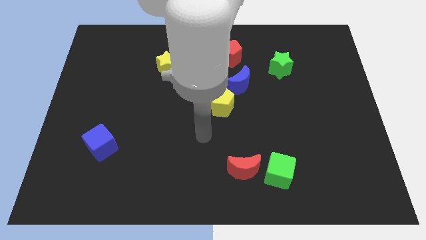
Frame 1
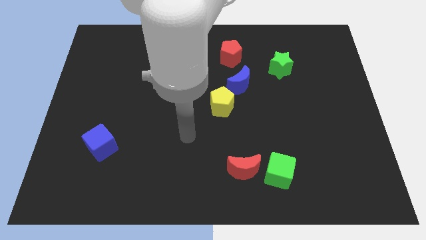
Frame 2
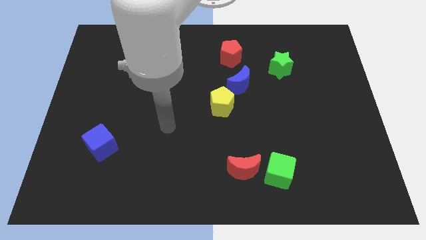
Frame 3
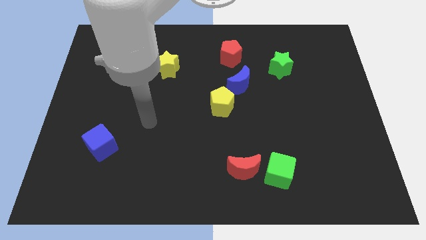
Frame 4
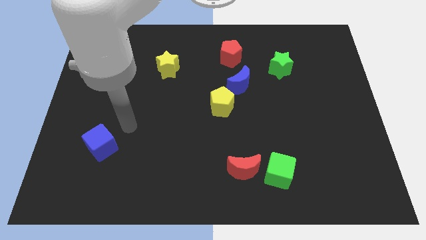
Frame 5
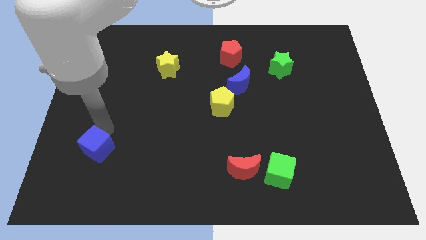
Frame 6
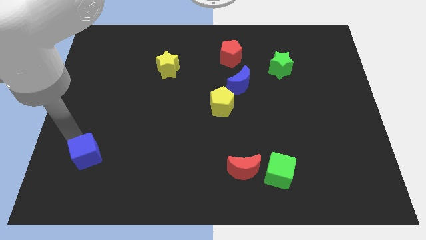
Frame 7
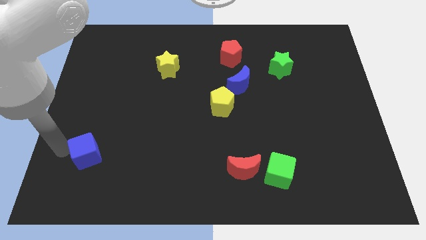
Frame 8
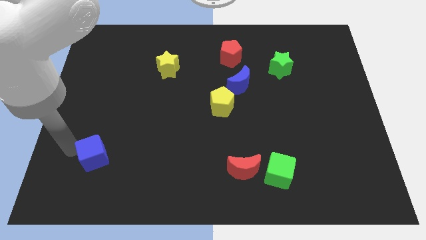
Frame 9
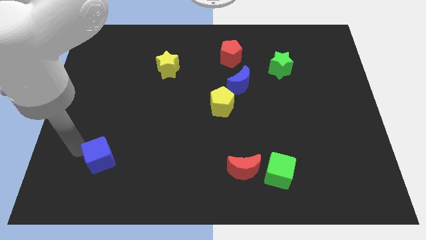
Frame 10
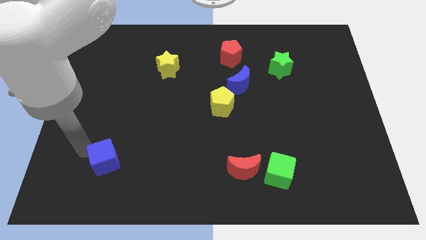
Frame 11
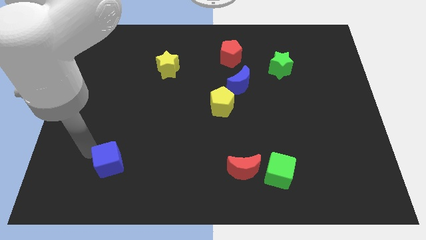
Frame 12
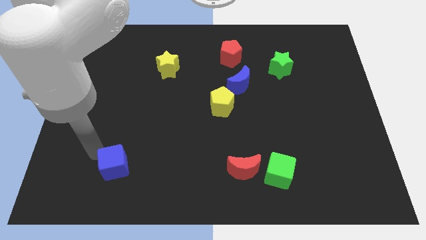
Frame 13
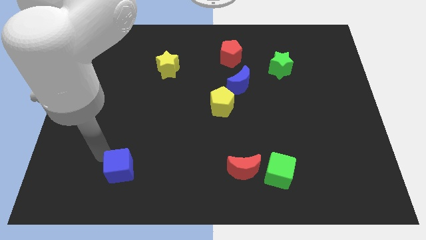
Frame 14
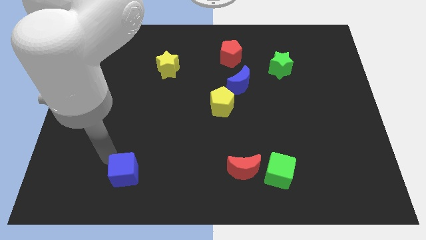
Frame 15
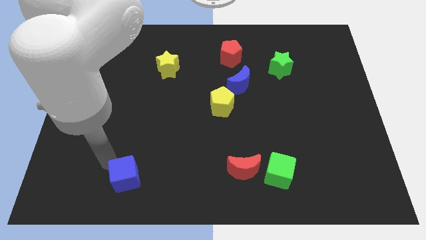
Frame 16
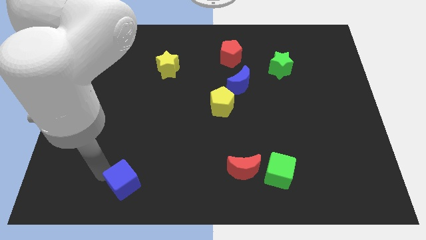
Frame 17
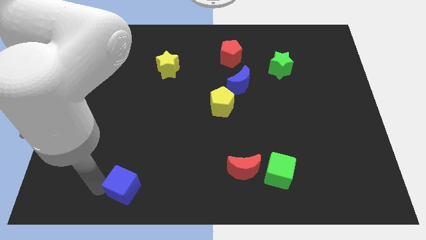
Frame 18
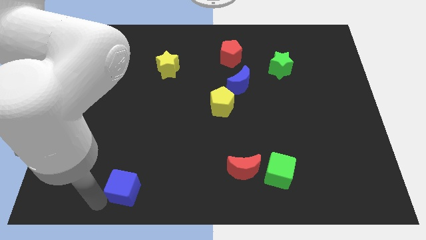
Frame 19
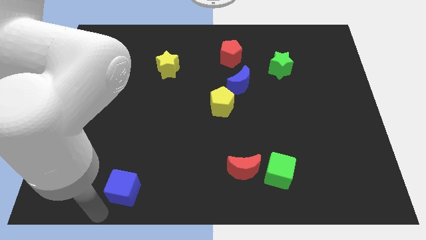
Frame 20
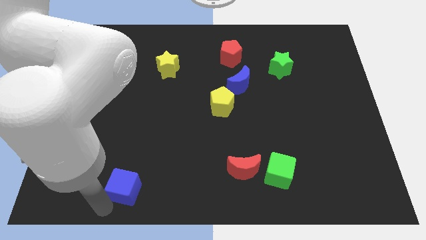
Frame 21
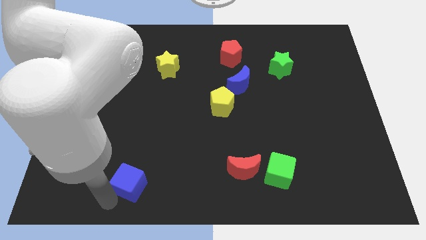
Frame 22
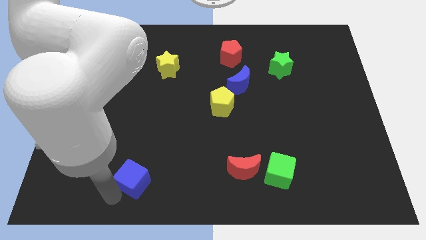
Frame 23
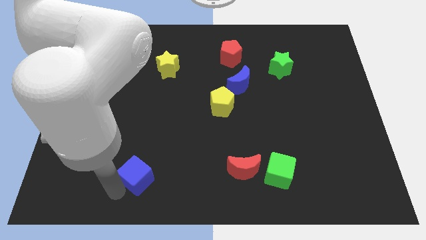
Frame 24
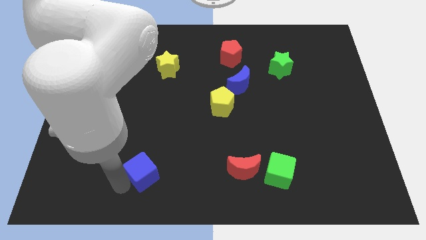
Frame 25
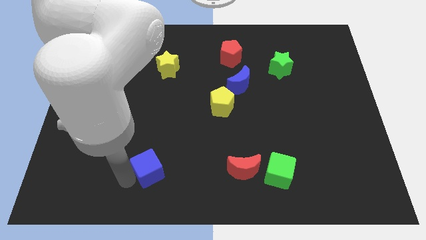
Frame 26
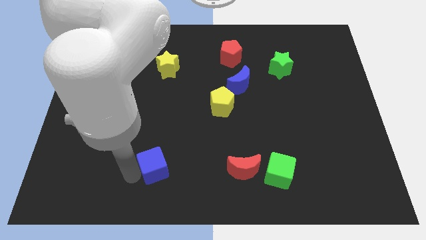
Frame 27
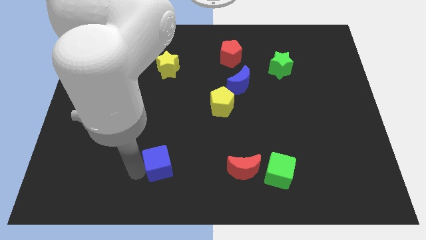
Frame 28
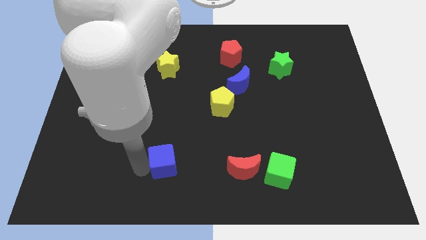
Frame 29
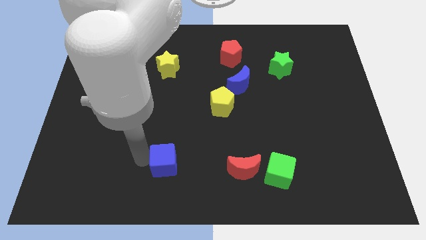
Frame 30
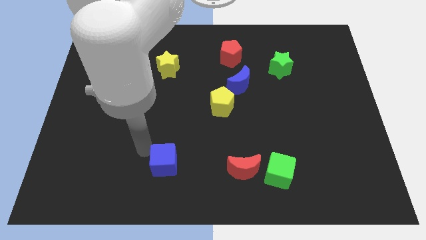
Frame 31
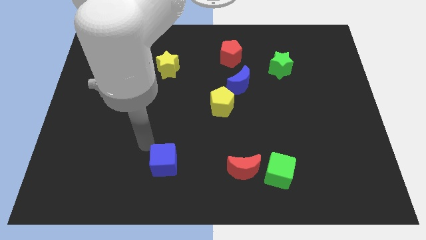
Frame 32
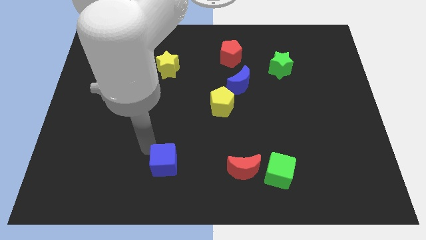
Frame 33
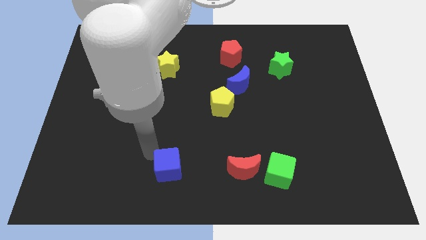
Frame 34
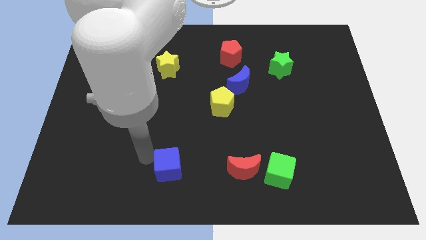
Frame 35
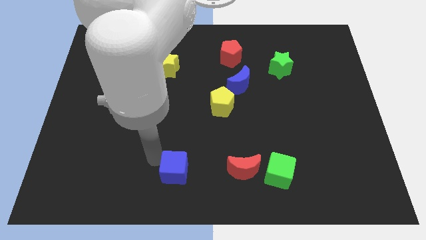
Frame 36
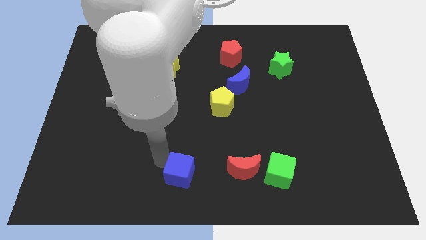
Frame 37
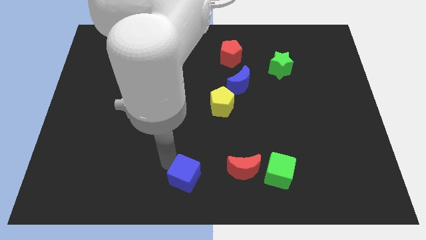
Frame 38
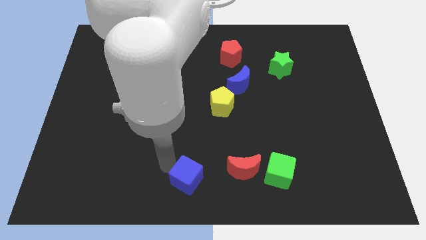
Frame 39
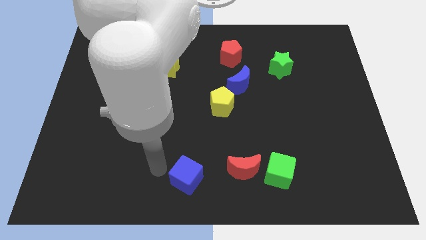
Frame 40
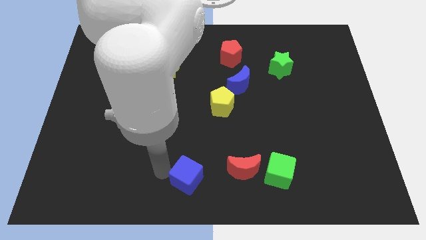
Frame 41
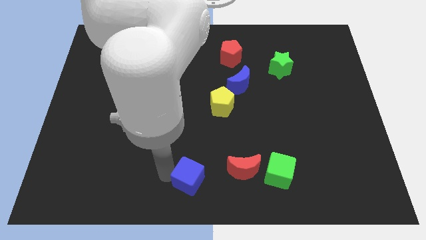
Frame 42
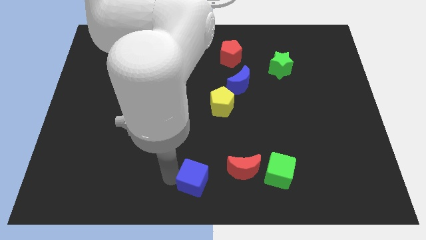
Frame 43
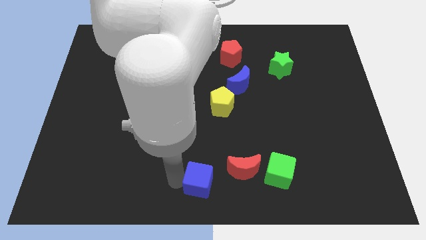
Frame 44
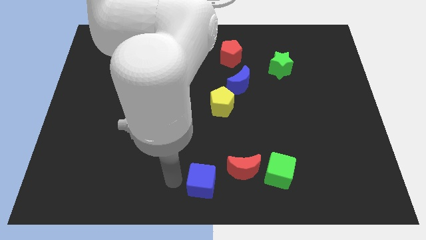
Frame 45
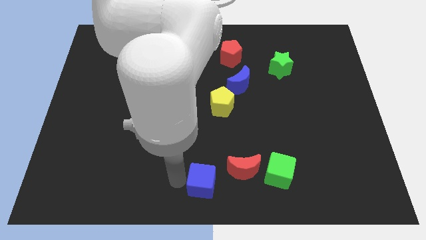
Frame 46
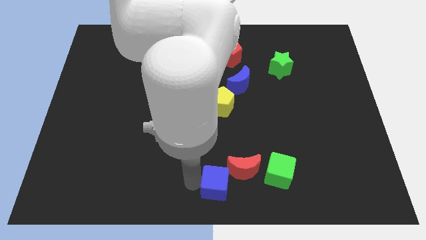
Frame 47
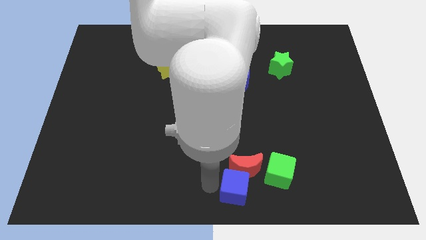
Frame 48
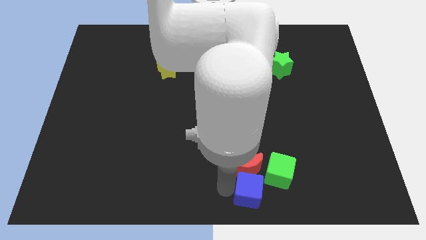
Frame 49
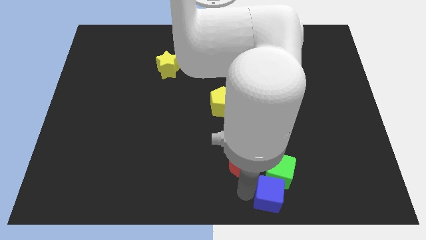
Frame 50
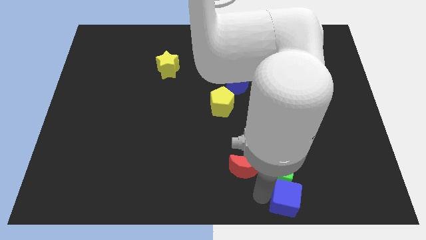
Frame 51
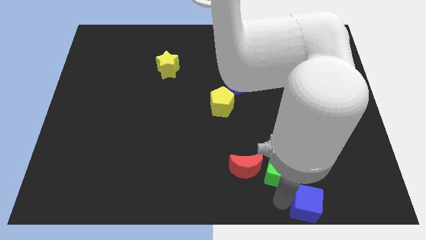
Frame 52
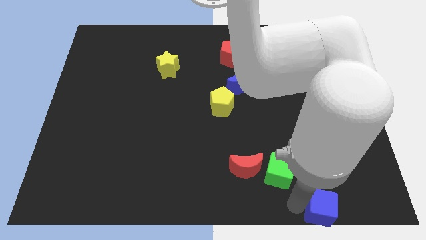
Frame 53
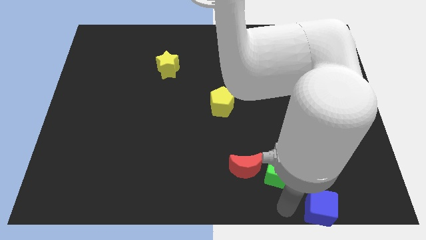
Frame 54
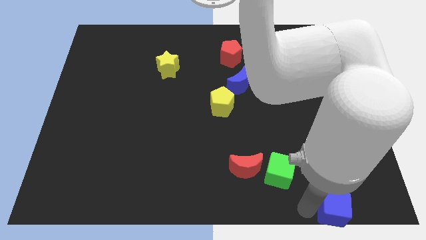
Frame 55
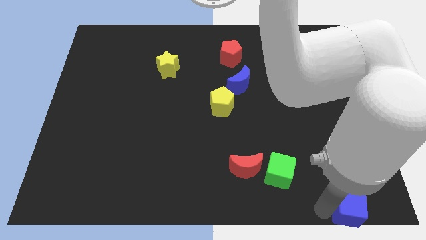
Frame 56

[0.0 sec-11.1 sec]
push the blue cube to the bottom right corner

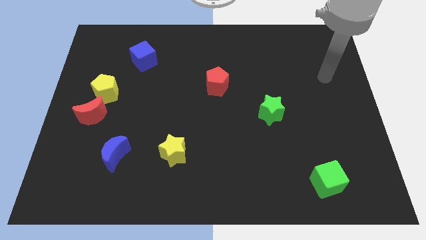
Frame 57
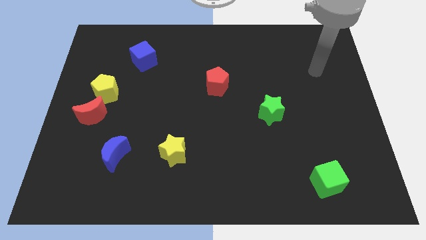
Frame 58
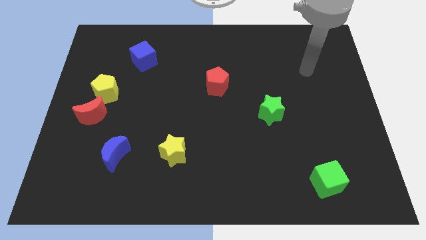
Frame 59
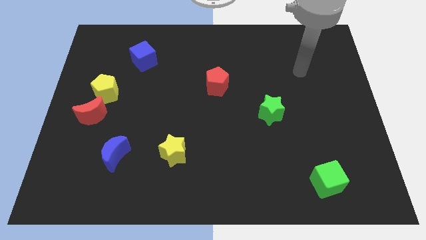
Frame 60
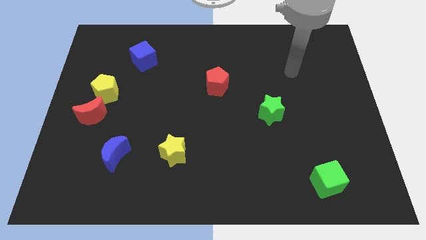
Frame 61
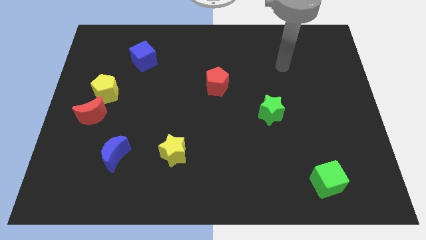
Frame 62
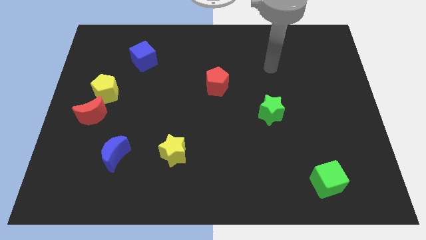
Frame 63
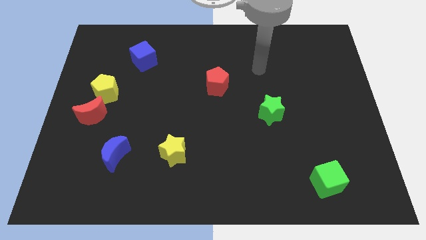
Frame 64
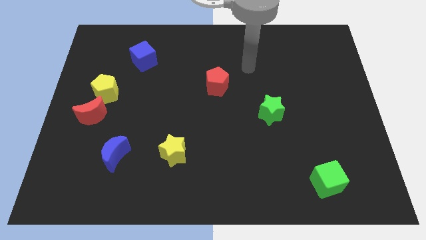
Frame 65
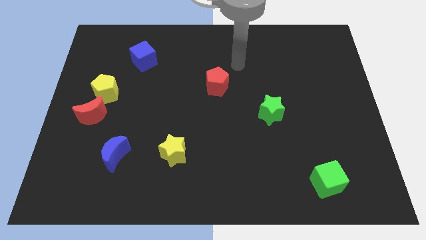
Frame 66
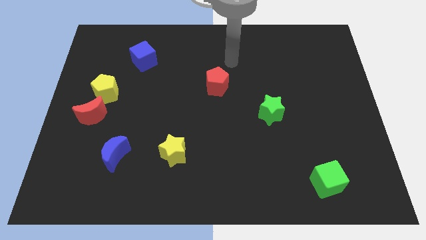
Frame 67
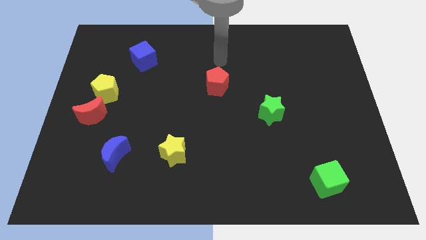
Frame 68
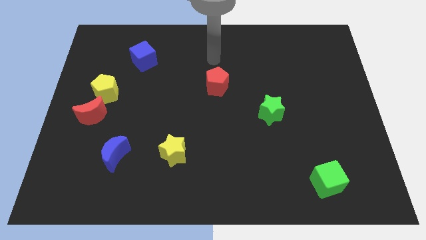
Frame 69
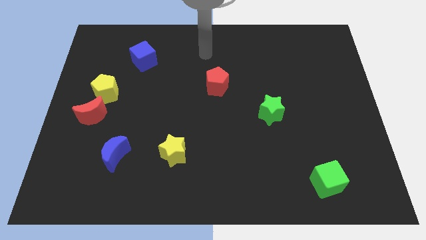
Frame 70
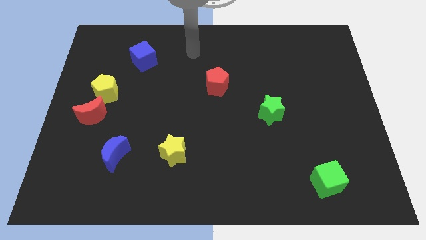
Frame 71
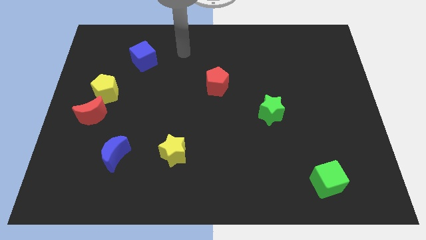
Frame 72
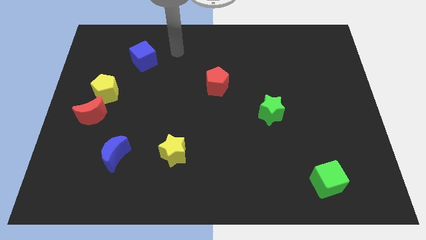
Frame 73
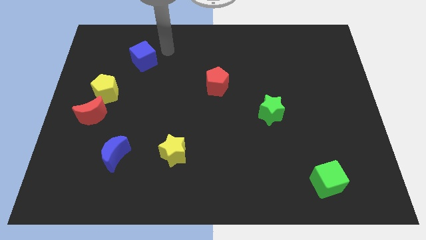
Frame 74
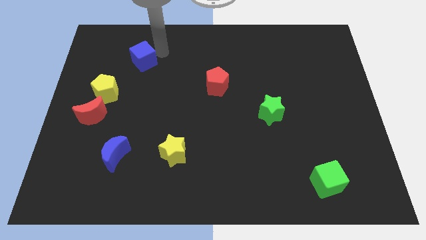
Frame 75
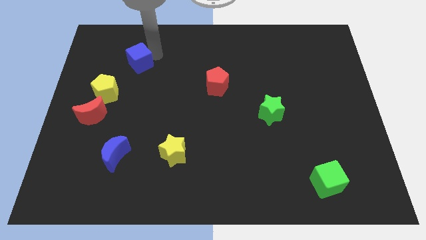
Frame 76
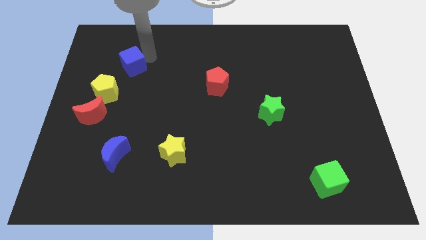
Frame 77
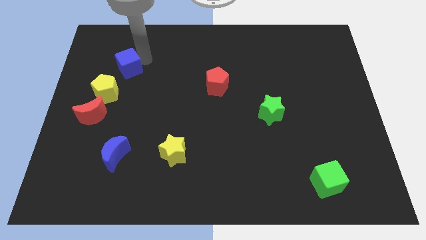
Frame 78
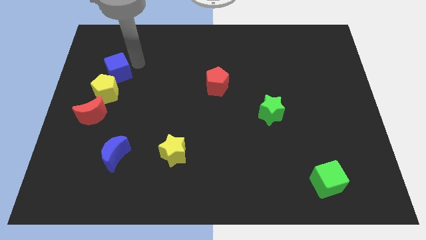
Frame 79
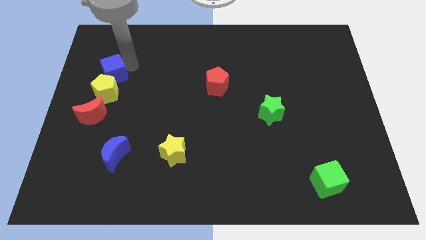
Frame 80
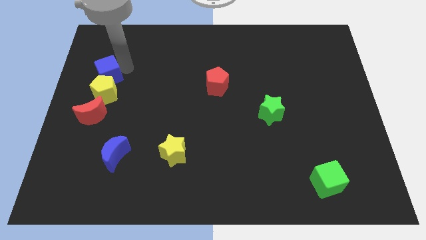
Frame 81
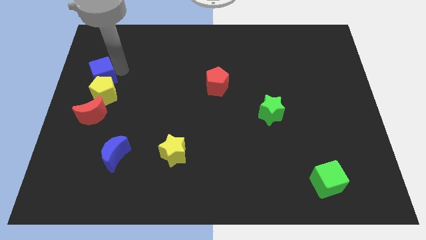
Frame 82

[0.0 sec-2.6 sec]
move the blue cube to the center left
